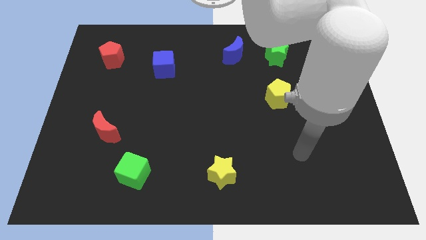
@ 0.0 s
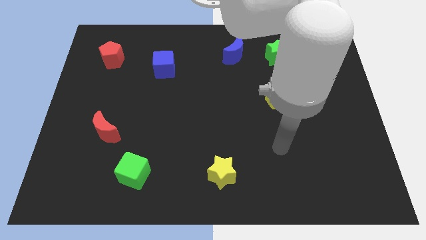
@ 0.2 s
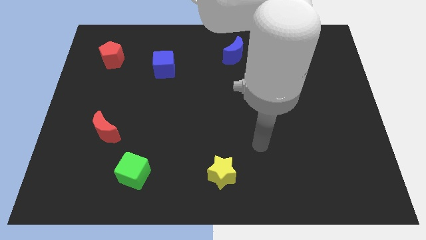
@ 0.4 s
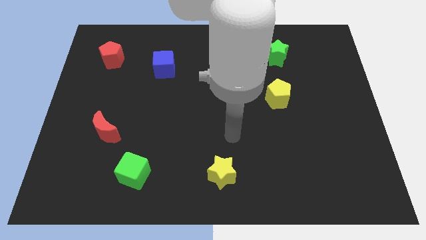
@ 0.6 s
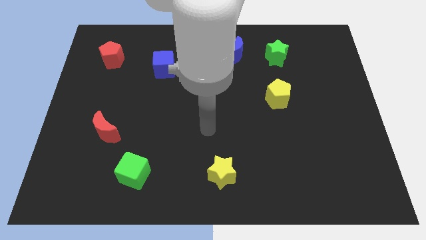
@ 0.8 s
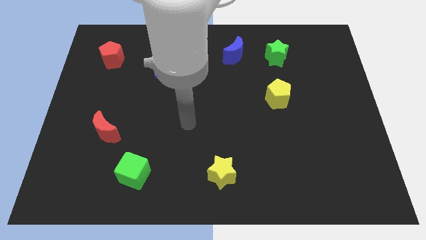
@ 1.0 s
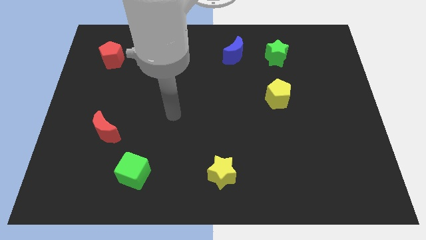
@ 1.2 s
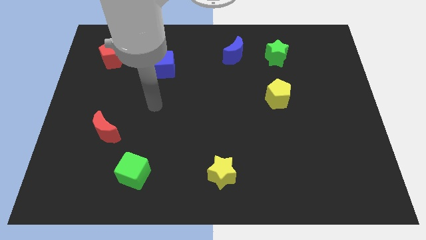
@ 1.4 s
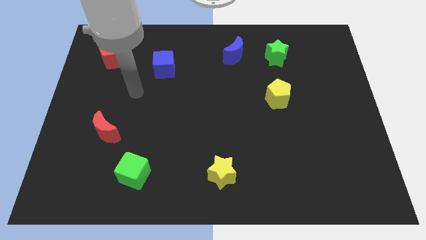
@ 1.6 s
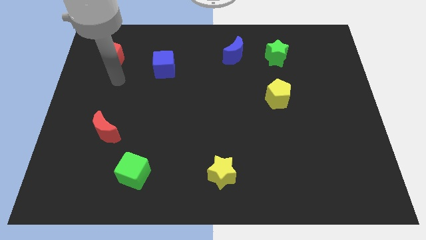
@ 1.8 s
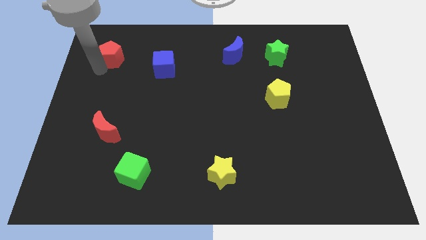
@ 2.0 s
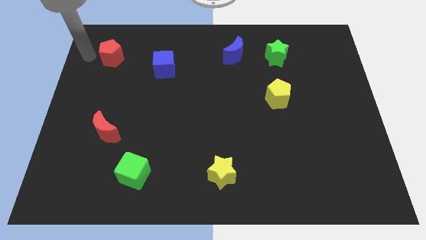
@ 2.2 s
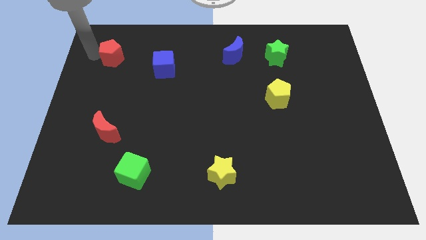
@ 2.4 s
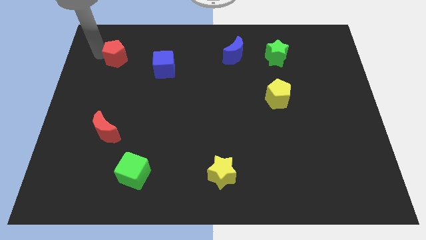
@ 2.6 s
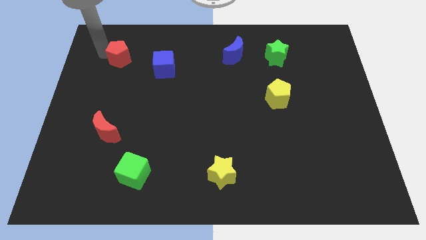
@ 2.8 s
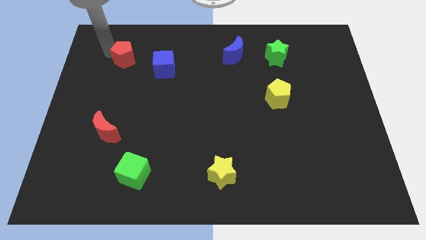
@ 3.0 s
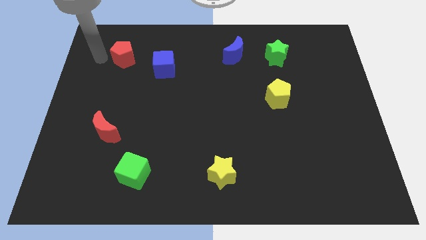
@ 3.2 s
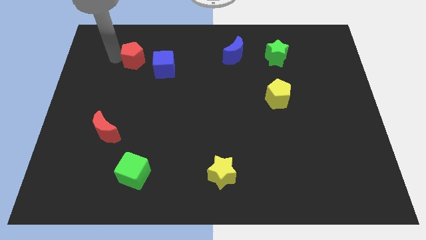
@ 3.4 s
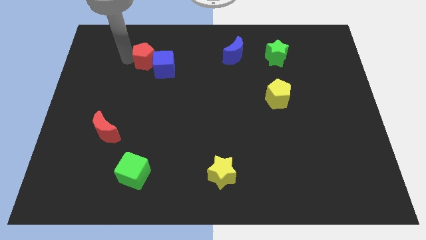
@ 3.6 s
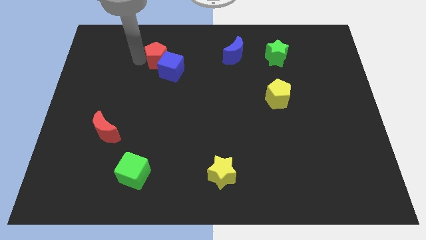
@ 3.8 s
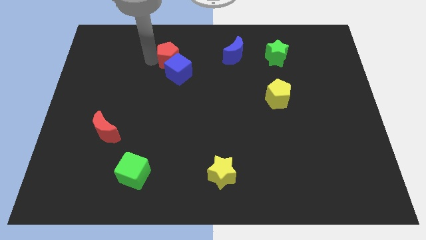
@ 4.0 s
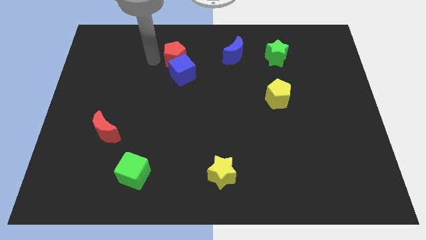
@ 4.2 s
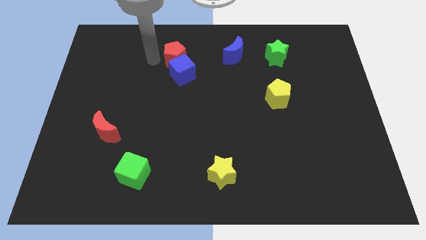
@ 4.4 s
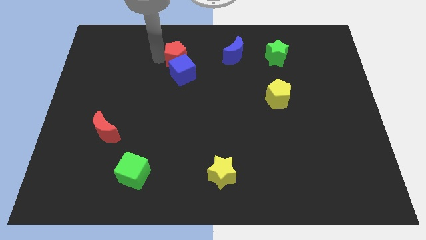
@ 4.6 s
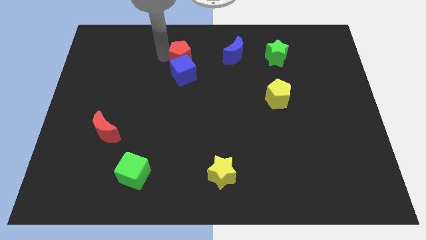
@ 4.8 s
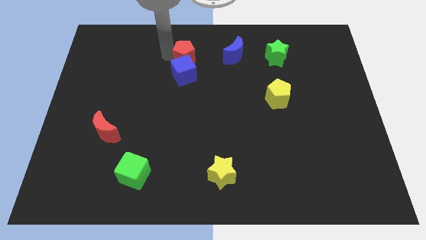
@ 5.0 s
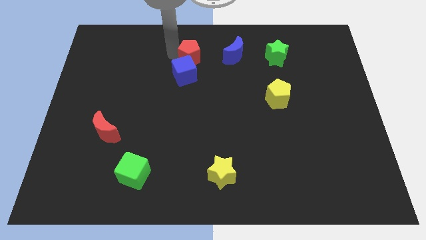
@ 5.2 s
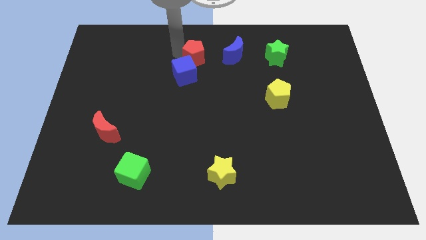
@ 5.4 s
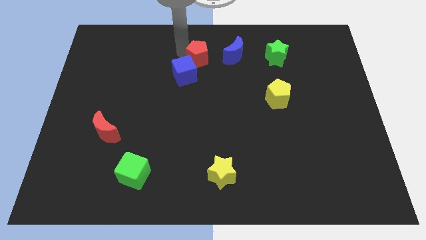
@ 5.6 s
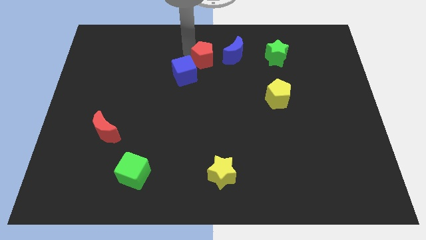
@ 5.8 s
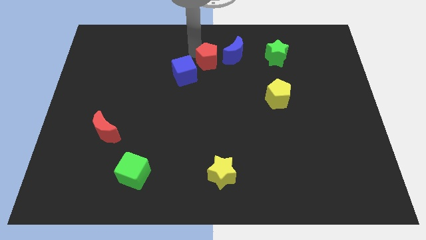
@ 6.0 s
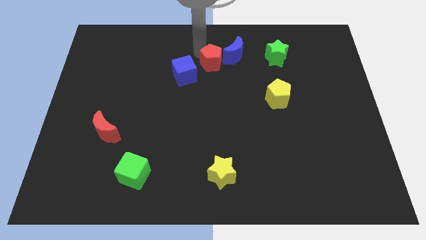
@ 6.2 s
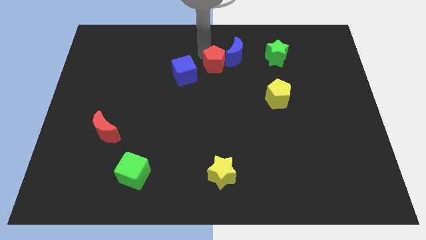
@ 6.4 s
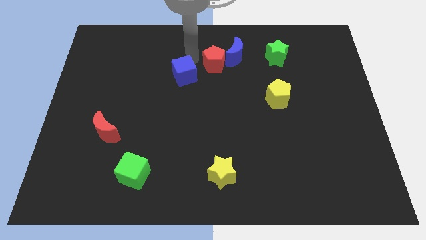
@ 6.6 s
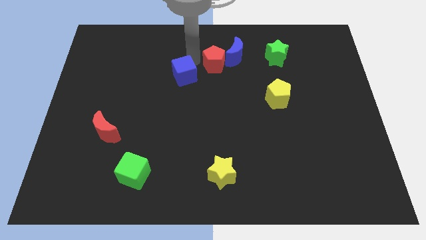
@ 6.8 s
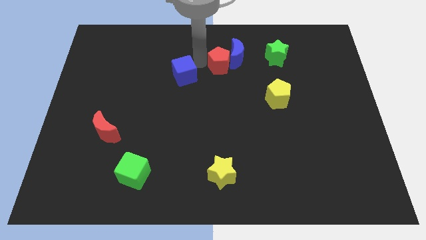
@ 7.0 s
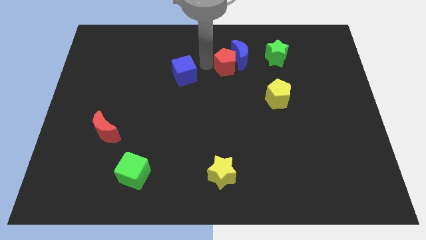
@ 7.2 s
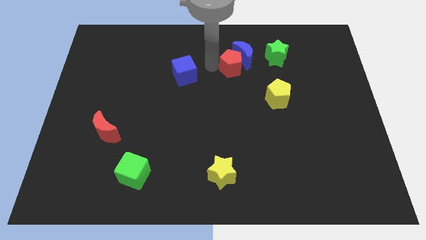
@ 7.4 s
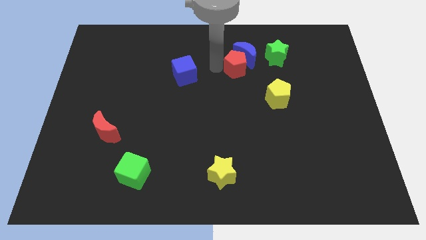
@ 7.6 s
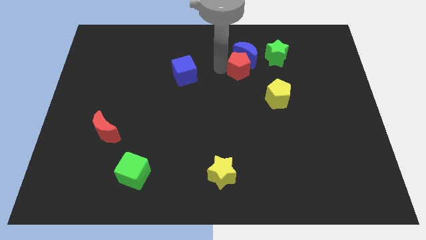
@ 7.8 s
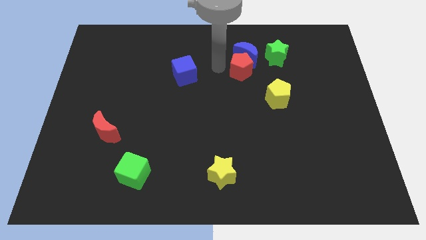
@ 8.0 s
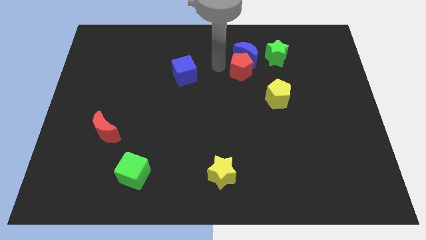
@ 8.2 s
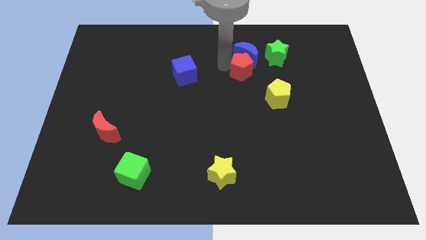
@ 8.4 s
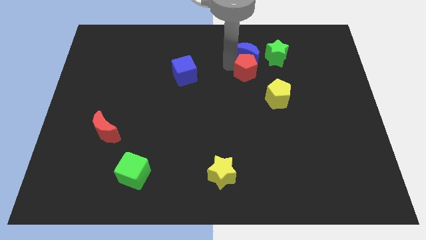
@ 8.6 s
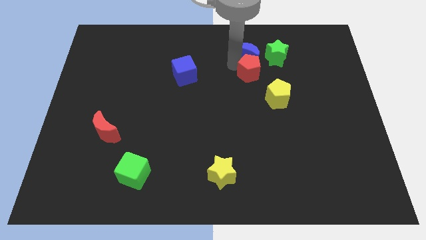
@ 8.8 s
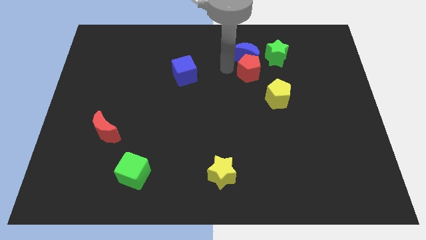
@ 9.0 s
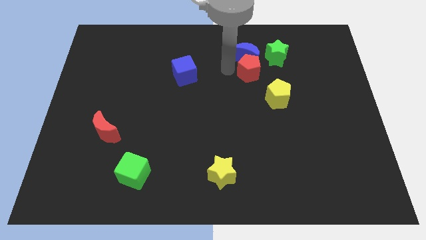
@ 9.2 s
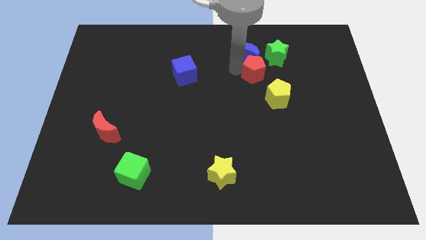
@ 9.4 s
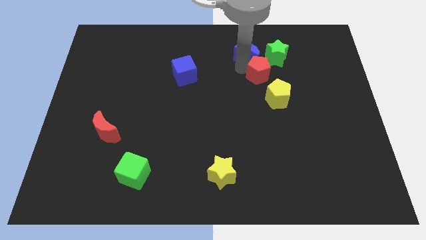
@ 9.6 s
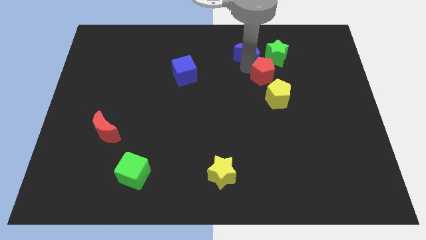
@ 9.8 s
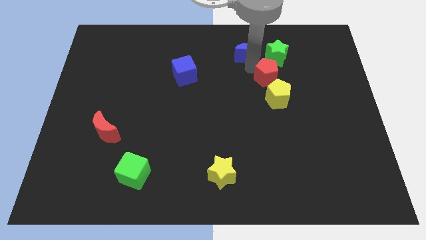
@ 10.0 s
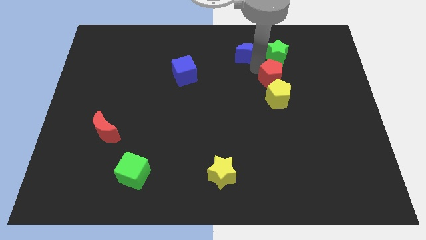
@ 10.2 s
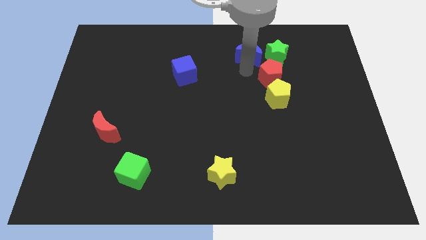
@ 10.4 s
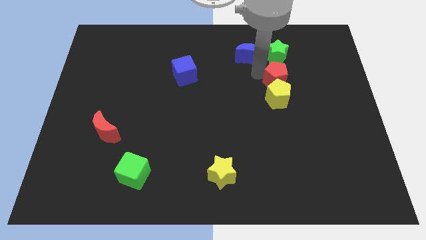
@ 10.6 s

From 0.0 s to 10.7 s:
move the red pentagon to the top right side of the yellow pentagon

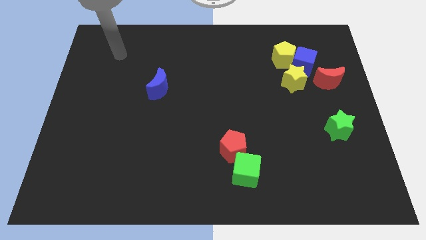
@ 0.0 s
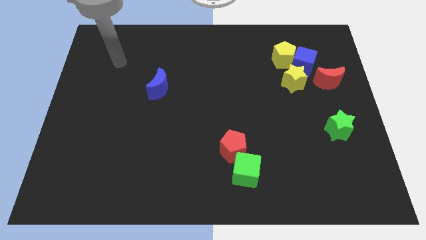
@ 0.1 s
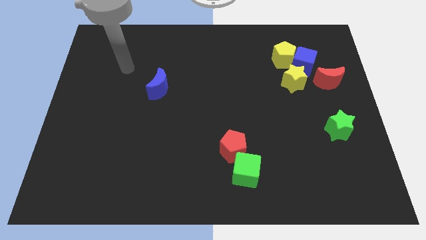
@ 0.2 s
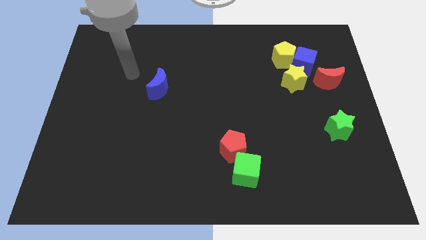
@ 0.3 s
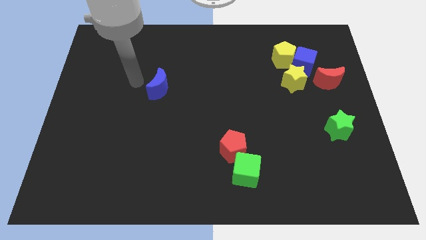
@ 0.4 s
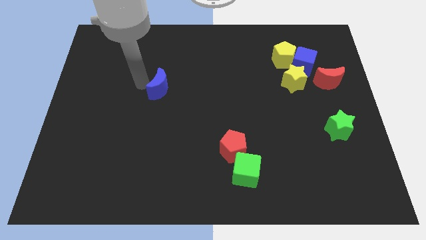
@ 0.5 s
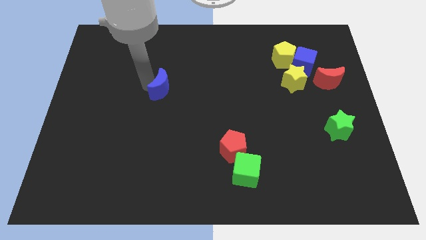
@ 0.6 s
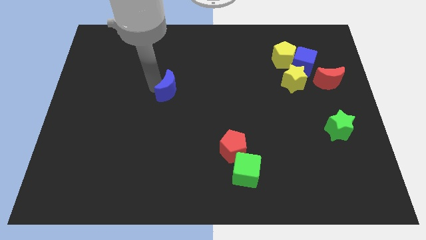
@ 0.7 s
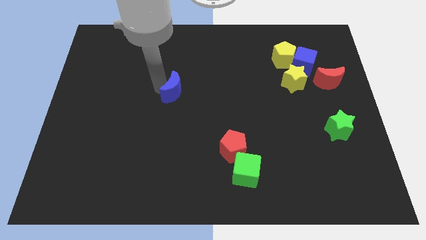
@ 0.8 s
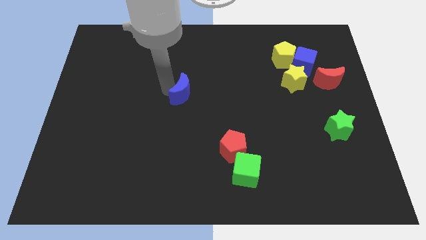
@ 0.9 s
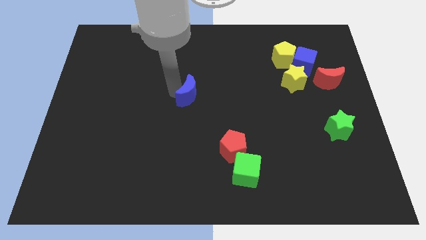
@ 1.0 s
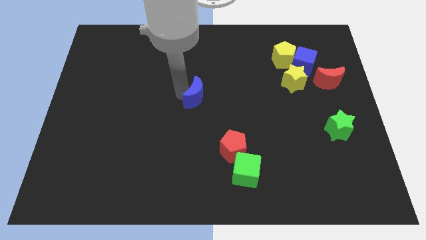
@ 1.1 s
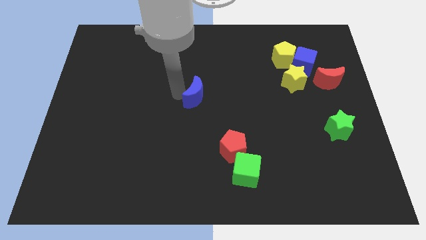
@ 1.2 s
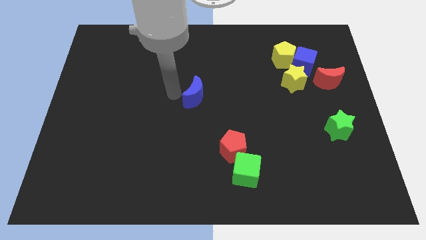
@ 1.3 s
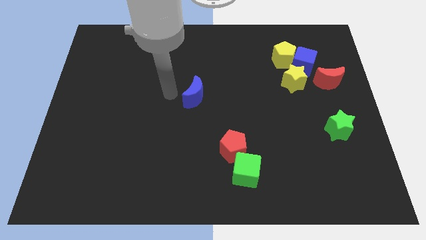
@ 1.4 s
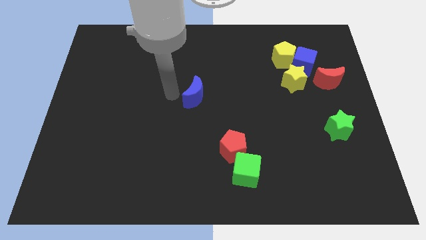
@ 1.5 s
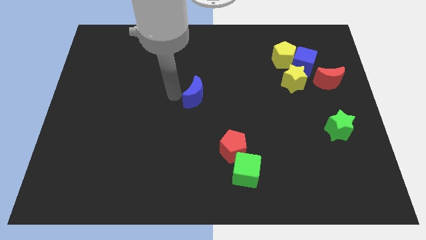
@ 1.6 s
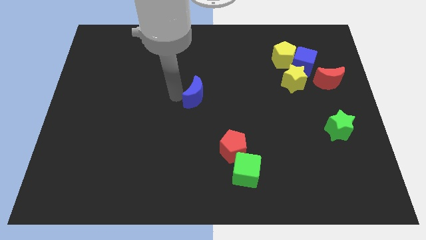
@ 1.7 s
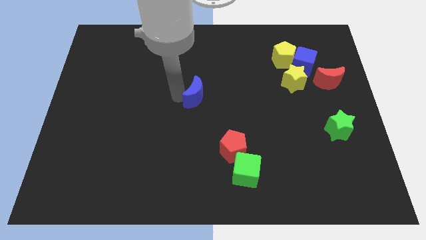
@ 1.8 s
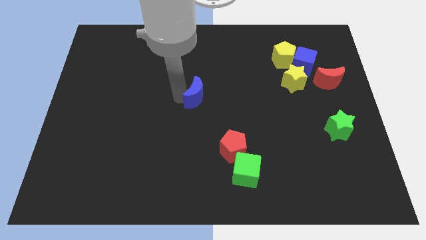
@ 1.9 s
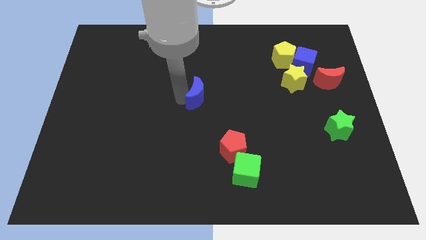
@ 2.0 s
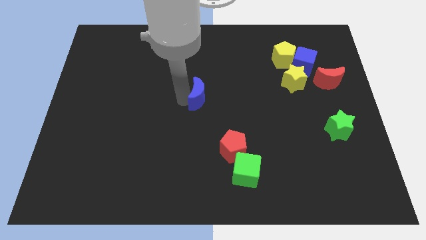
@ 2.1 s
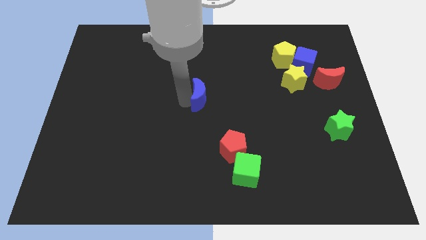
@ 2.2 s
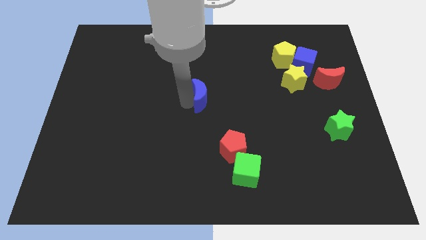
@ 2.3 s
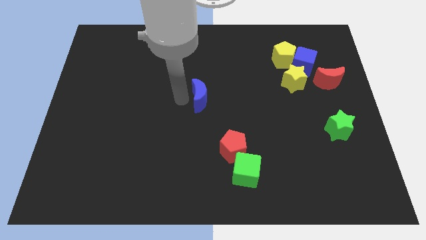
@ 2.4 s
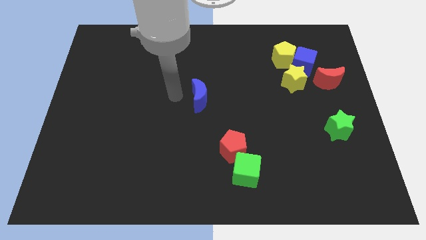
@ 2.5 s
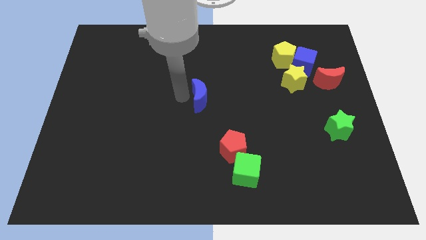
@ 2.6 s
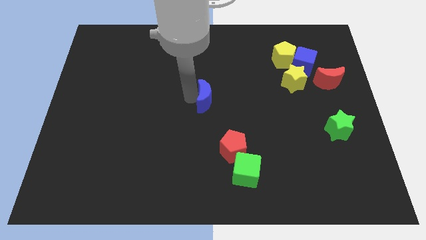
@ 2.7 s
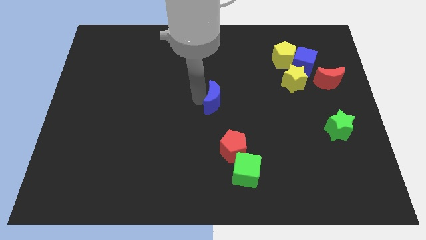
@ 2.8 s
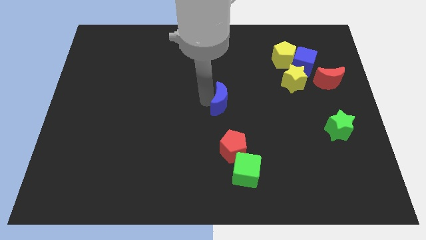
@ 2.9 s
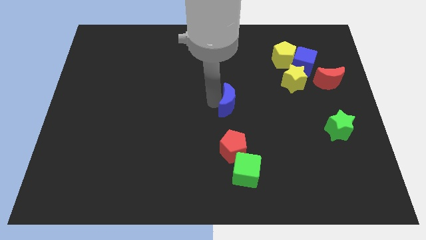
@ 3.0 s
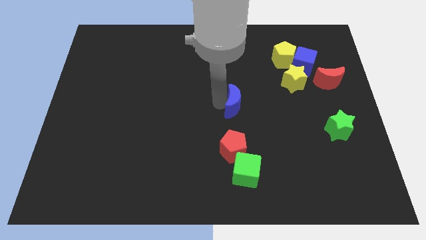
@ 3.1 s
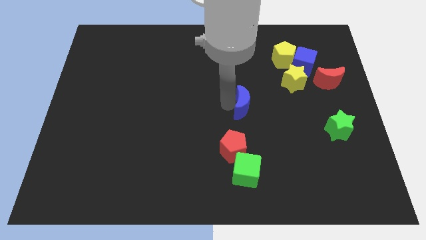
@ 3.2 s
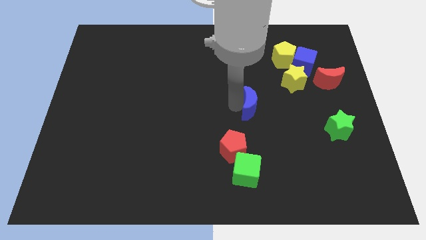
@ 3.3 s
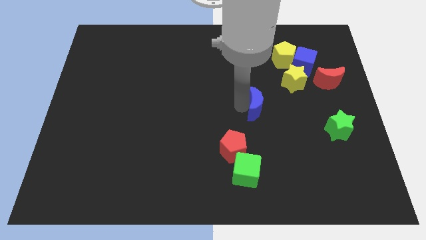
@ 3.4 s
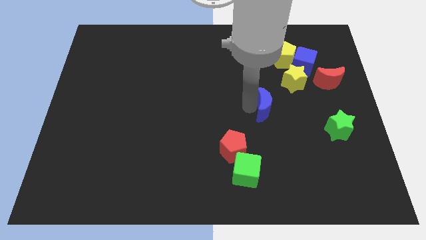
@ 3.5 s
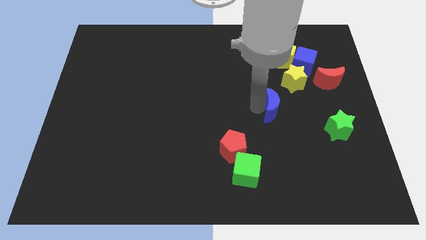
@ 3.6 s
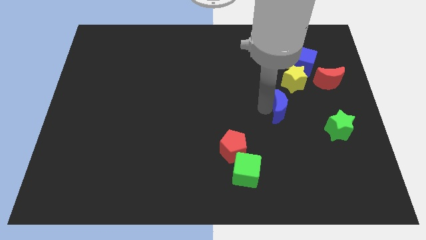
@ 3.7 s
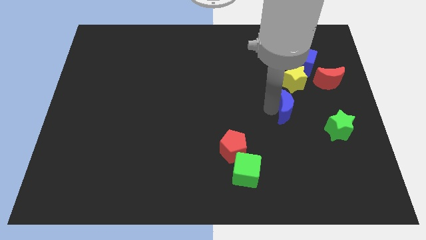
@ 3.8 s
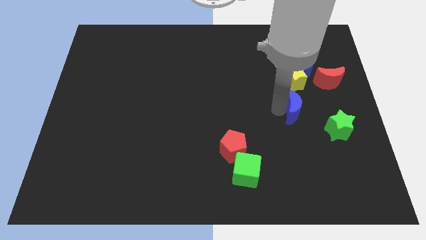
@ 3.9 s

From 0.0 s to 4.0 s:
put the blue moon diagonally up and to the left of the green star
